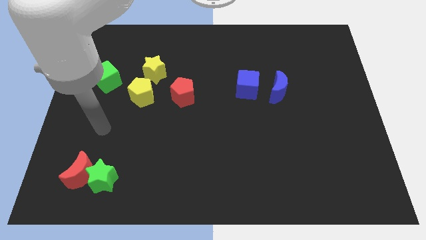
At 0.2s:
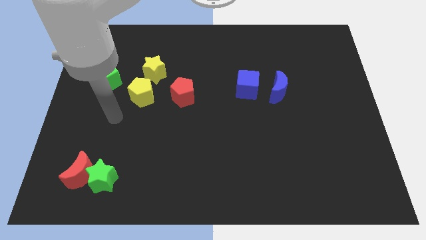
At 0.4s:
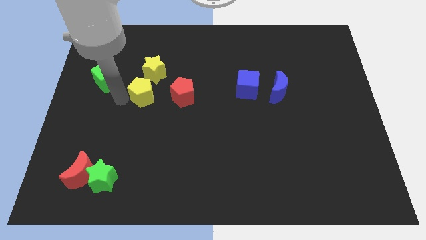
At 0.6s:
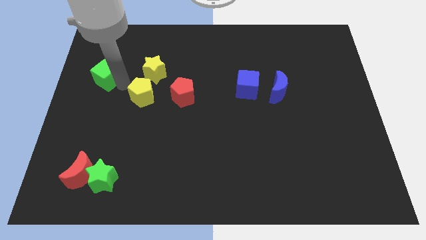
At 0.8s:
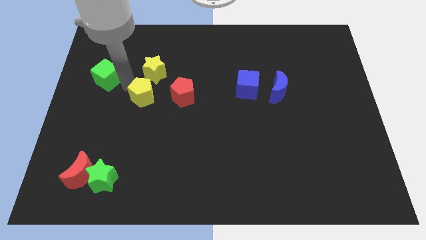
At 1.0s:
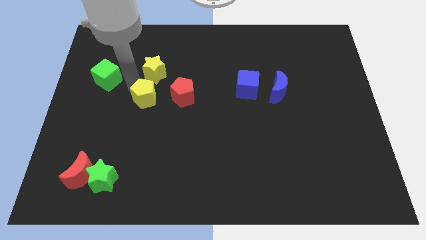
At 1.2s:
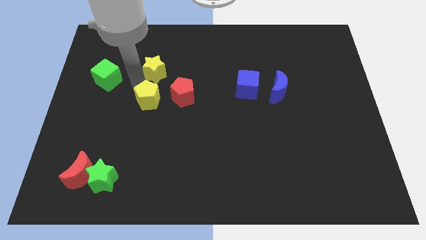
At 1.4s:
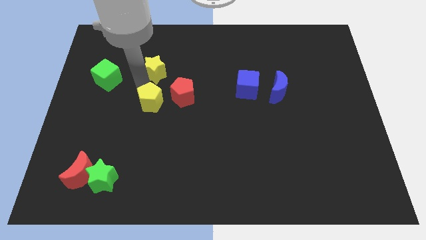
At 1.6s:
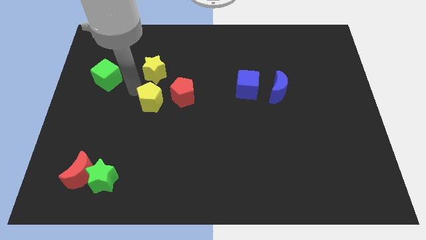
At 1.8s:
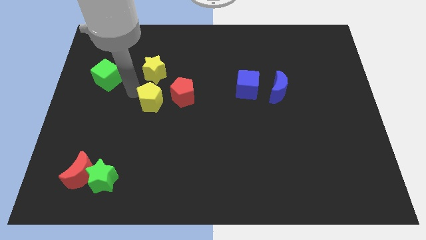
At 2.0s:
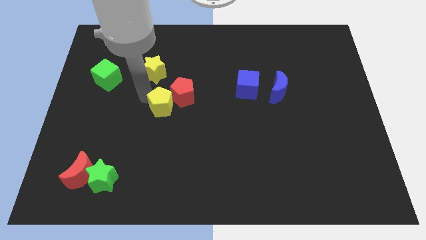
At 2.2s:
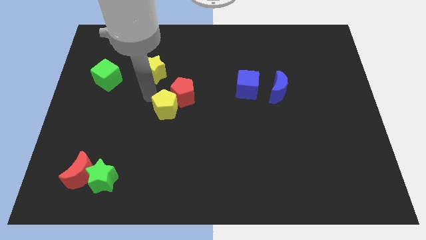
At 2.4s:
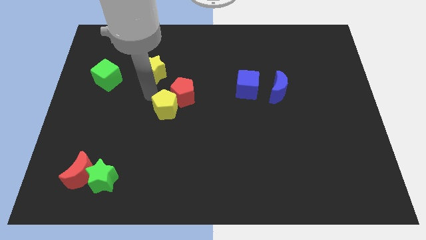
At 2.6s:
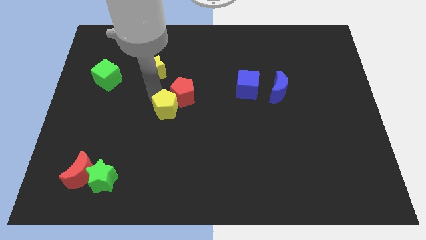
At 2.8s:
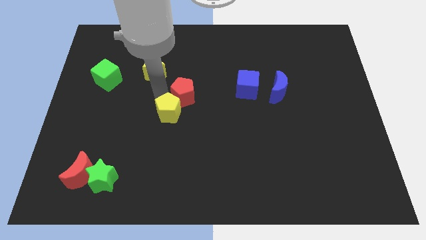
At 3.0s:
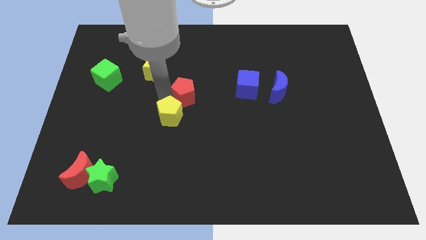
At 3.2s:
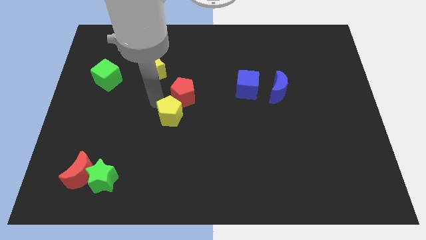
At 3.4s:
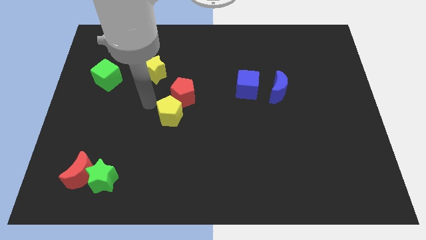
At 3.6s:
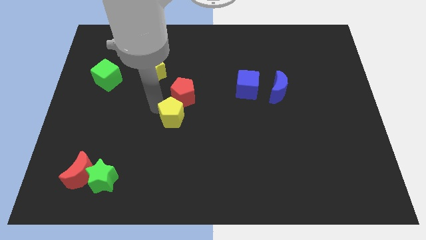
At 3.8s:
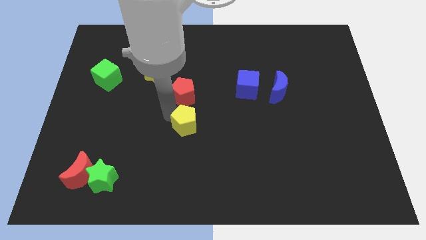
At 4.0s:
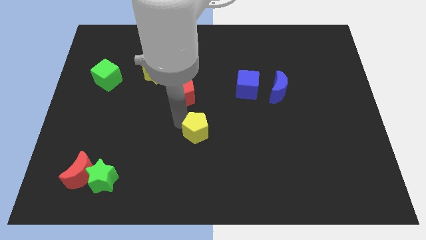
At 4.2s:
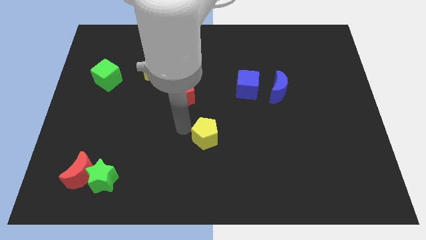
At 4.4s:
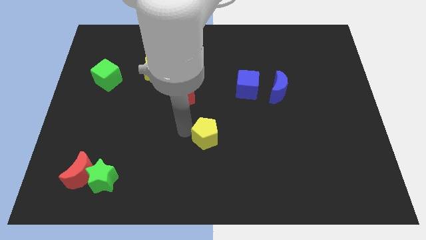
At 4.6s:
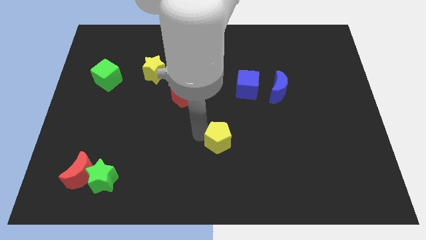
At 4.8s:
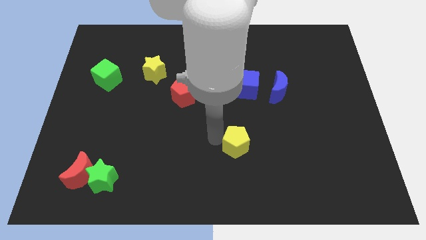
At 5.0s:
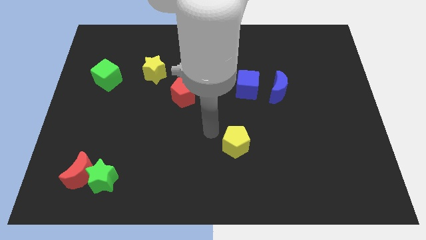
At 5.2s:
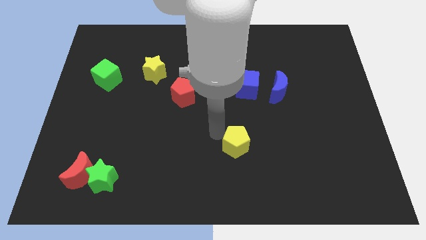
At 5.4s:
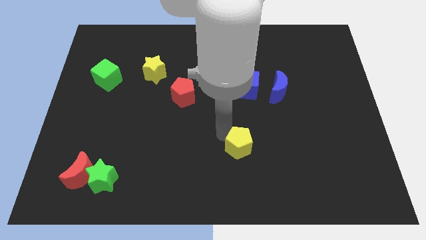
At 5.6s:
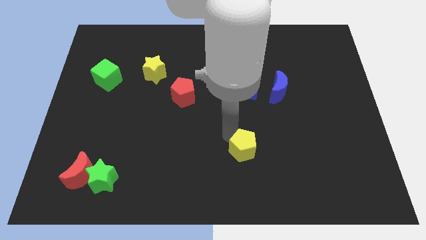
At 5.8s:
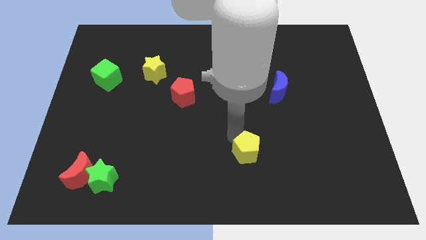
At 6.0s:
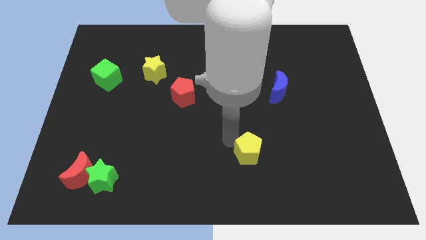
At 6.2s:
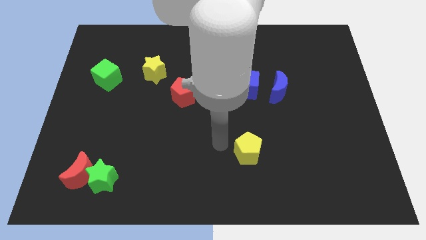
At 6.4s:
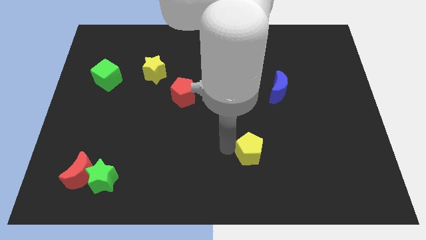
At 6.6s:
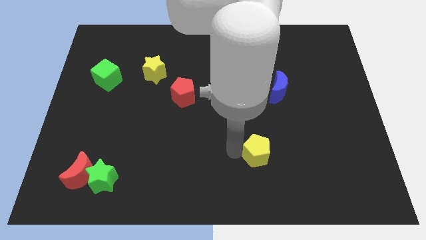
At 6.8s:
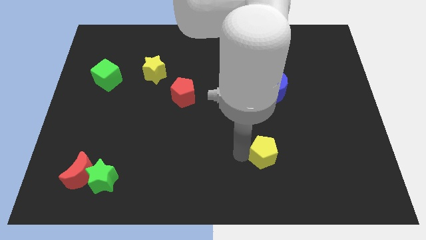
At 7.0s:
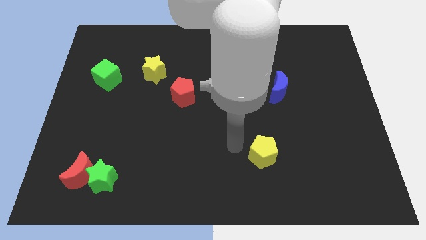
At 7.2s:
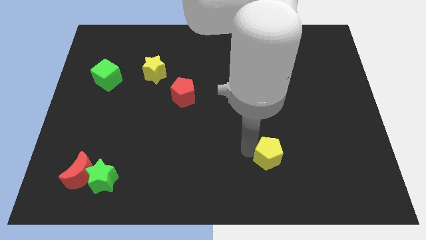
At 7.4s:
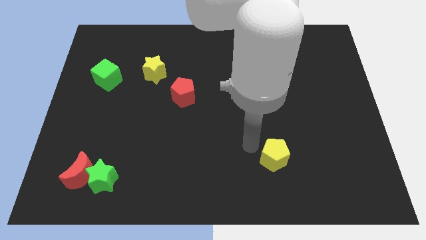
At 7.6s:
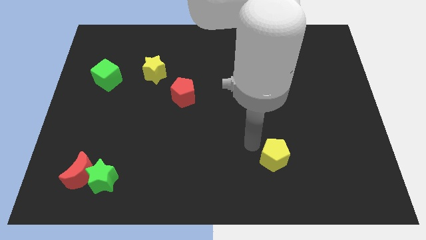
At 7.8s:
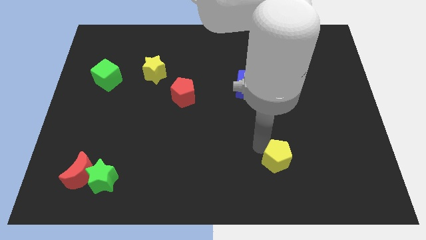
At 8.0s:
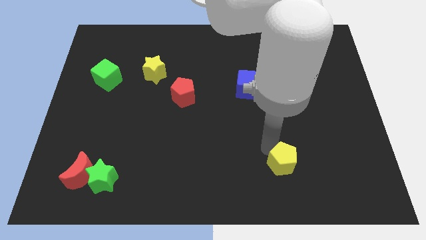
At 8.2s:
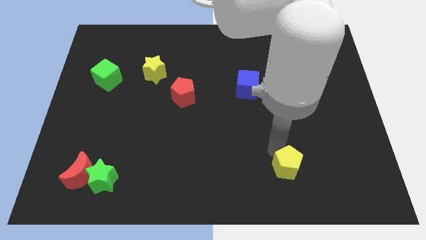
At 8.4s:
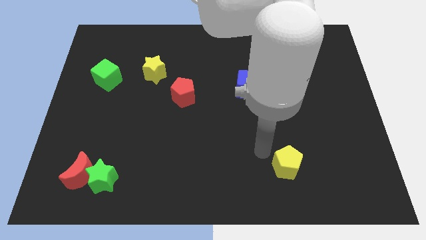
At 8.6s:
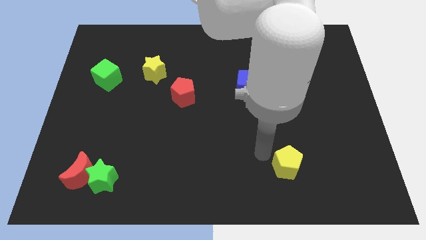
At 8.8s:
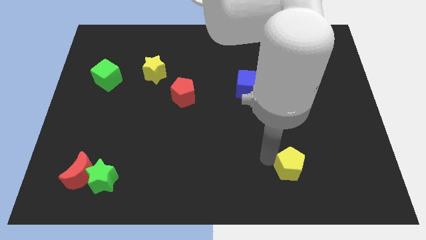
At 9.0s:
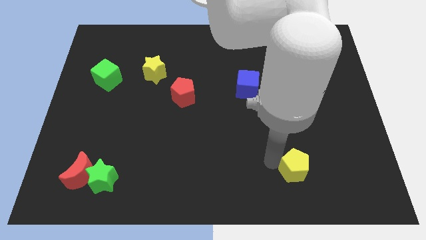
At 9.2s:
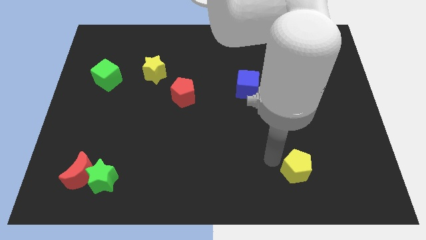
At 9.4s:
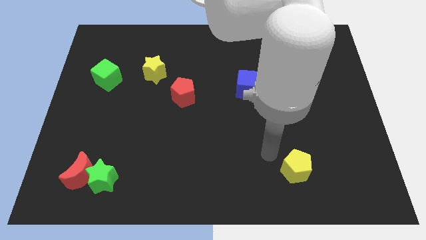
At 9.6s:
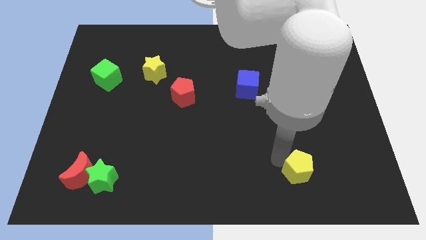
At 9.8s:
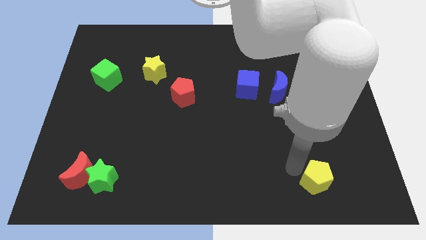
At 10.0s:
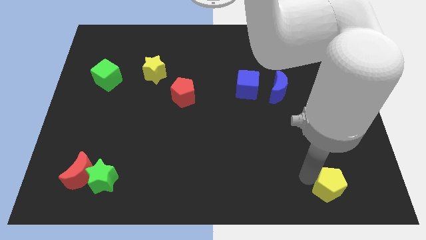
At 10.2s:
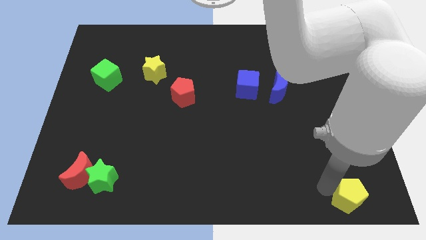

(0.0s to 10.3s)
move the yellow pentagon to the bottom right corner

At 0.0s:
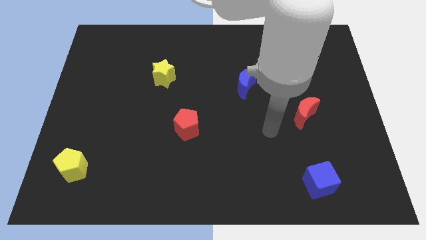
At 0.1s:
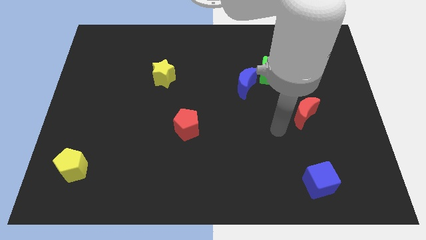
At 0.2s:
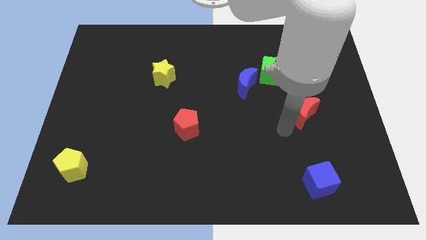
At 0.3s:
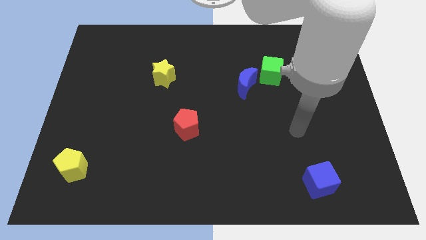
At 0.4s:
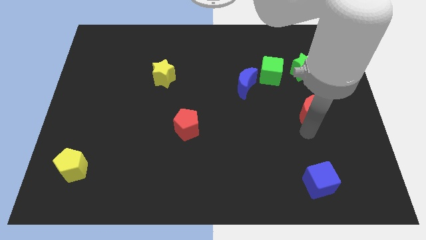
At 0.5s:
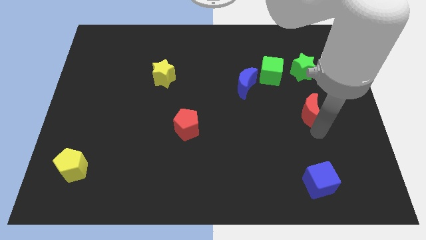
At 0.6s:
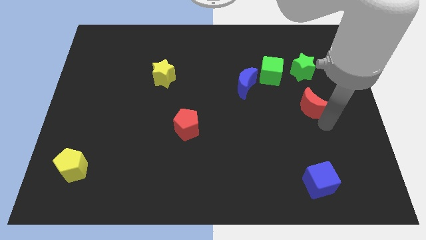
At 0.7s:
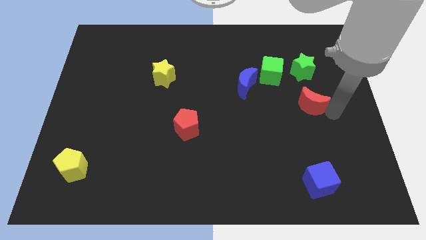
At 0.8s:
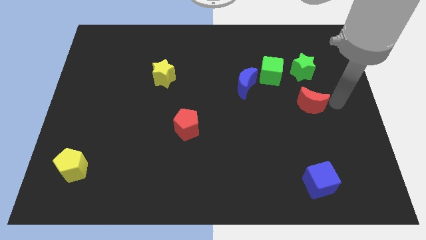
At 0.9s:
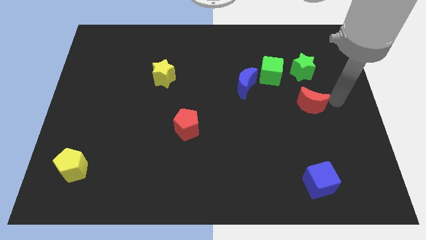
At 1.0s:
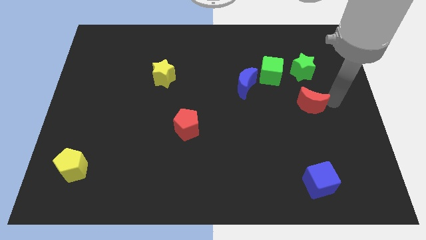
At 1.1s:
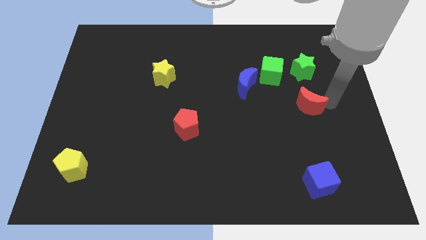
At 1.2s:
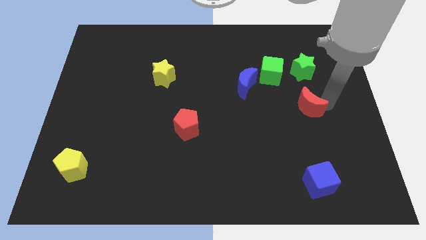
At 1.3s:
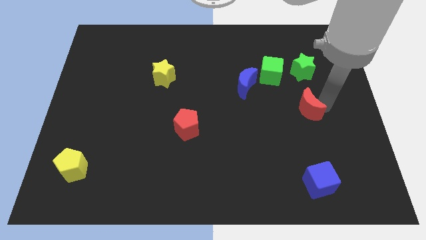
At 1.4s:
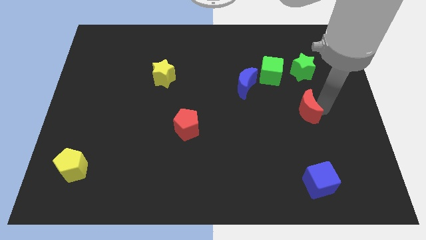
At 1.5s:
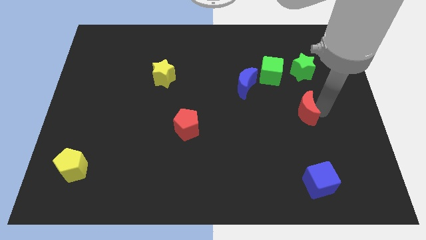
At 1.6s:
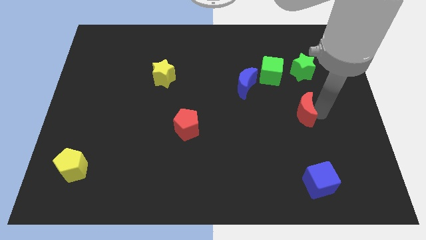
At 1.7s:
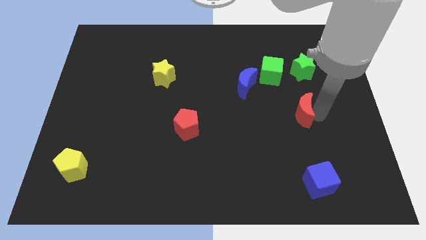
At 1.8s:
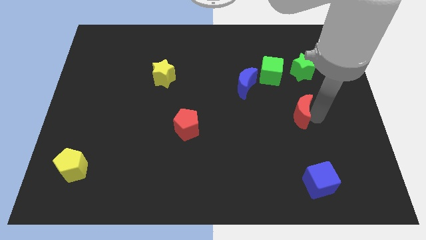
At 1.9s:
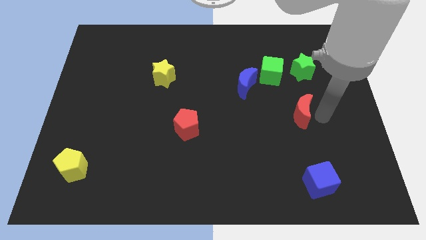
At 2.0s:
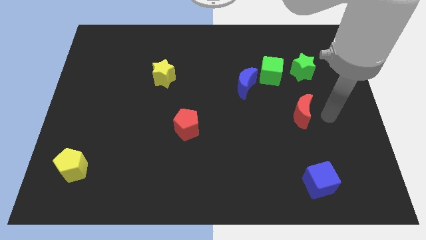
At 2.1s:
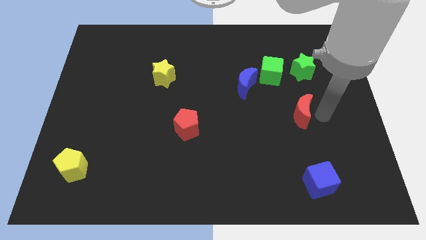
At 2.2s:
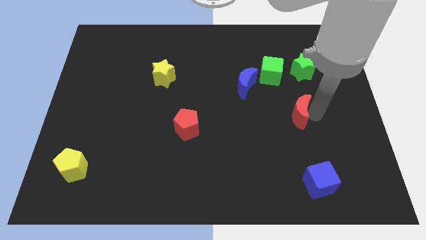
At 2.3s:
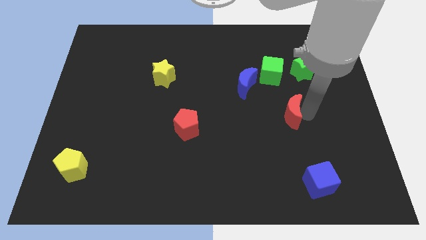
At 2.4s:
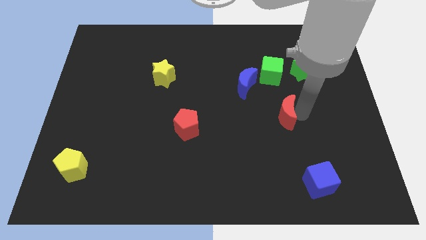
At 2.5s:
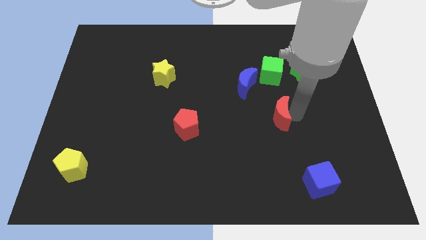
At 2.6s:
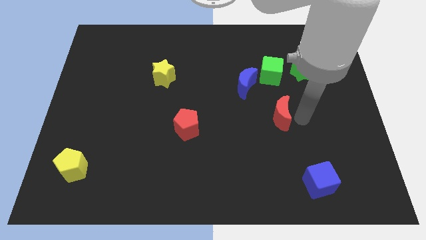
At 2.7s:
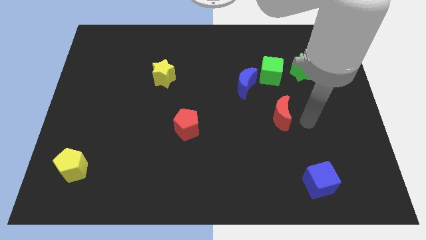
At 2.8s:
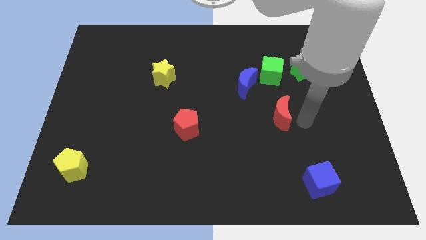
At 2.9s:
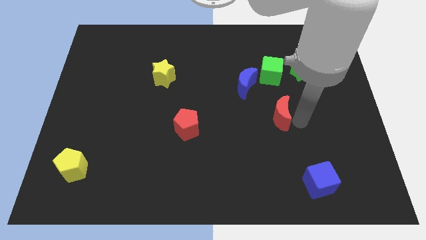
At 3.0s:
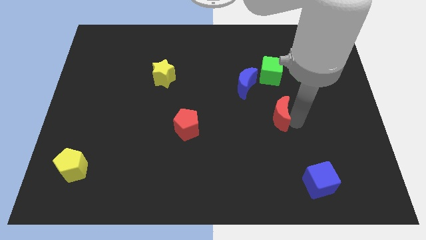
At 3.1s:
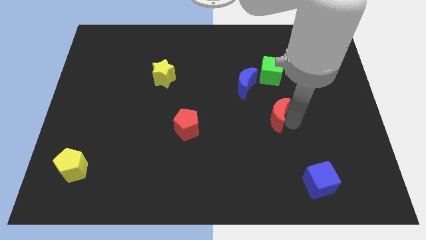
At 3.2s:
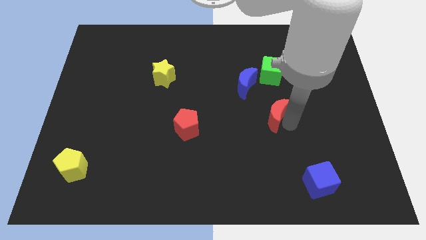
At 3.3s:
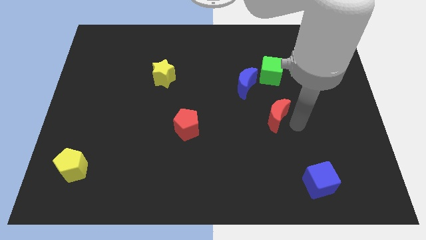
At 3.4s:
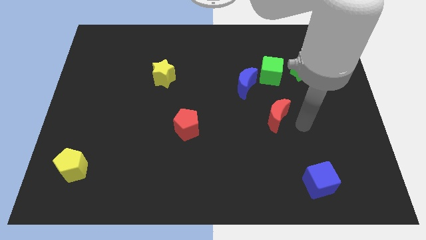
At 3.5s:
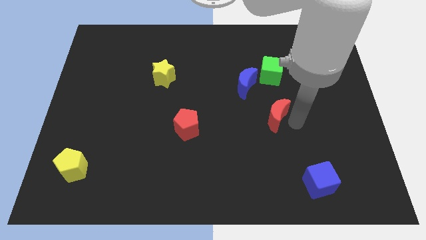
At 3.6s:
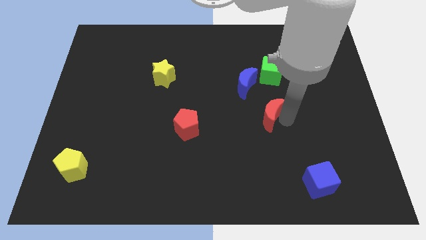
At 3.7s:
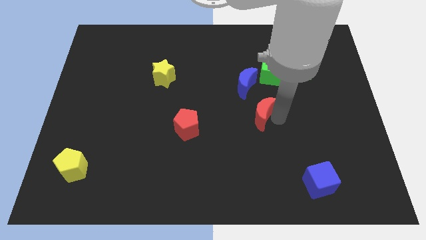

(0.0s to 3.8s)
slide the red moon to the center of the board
